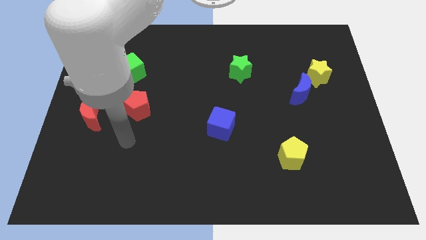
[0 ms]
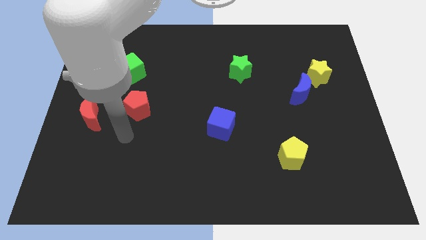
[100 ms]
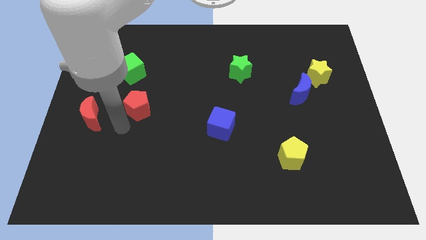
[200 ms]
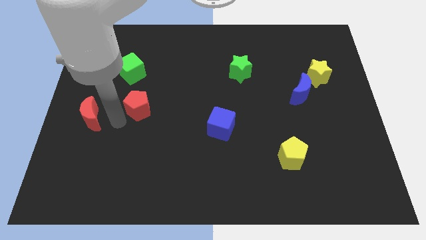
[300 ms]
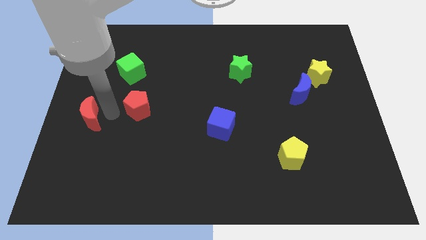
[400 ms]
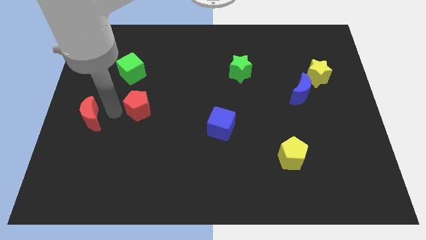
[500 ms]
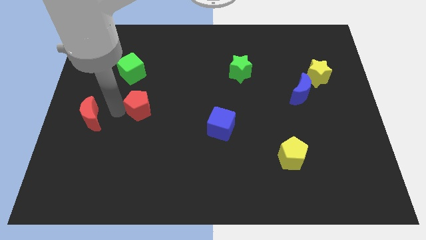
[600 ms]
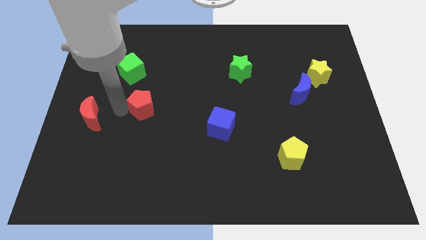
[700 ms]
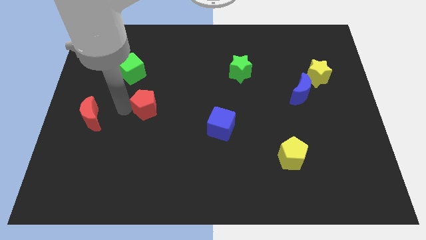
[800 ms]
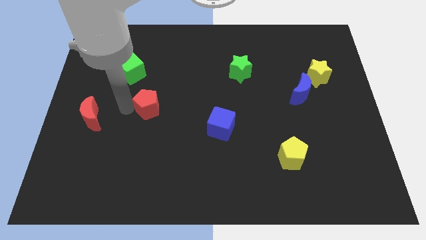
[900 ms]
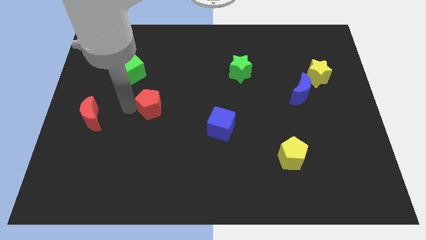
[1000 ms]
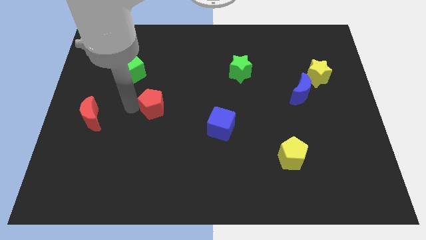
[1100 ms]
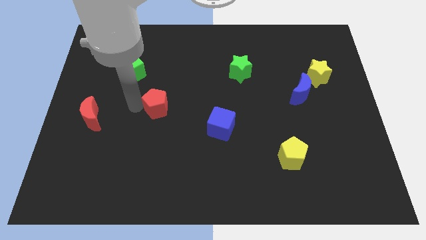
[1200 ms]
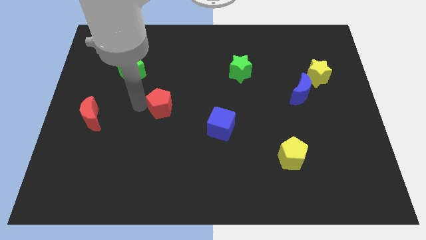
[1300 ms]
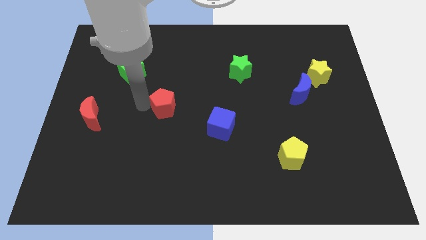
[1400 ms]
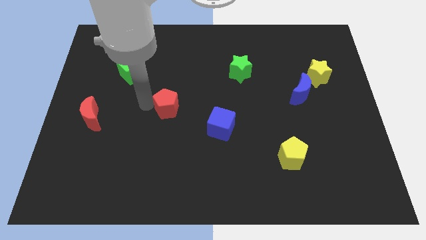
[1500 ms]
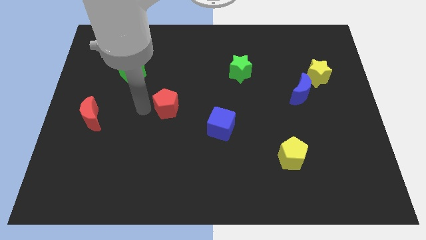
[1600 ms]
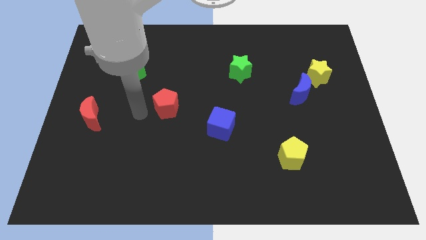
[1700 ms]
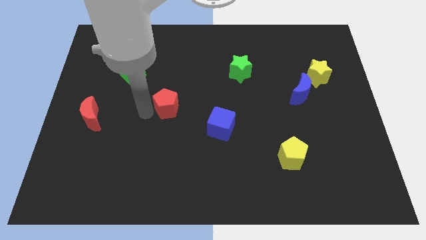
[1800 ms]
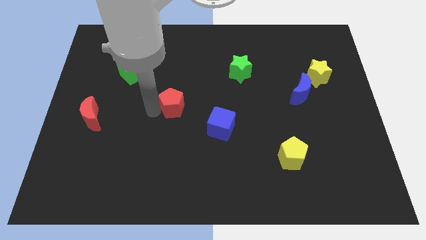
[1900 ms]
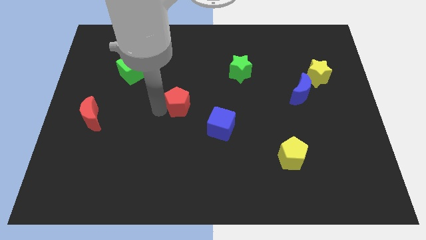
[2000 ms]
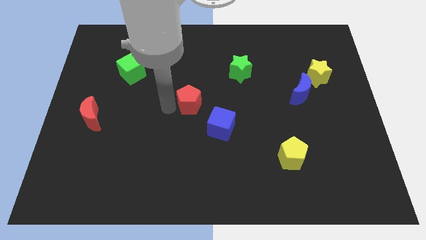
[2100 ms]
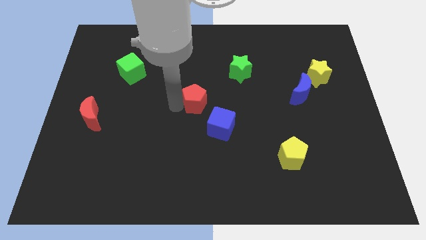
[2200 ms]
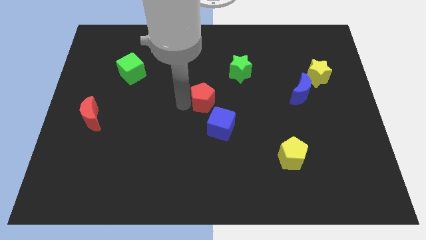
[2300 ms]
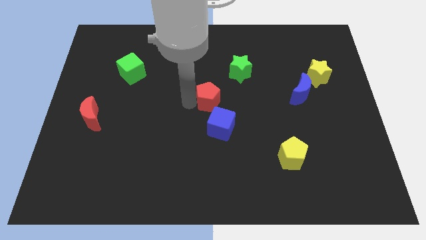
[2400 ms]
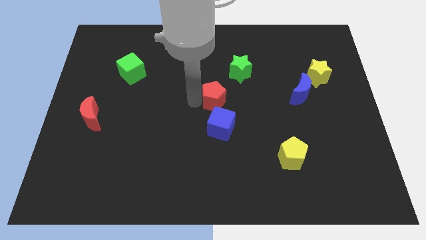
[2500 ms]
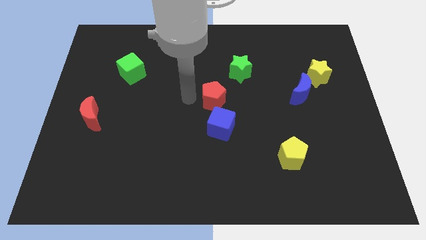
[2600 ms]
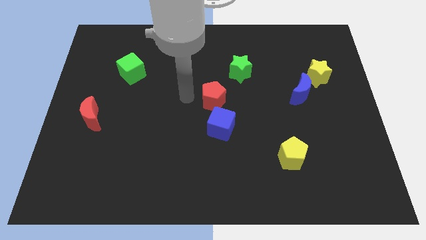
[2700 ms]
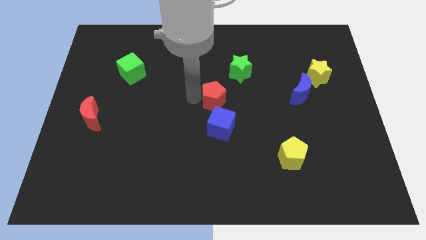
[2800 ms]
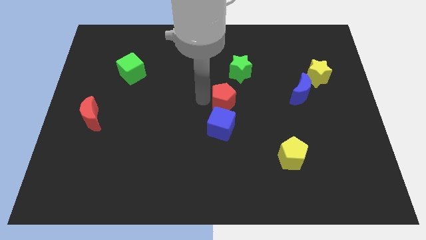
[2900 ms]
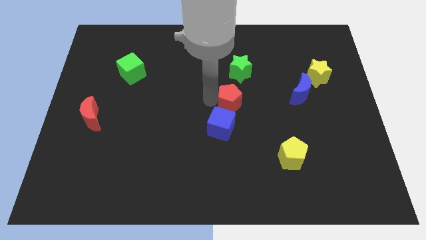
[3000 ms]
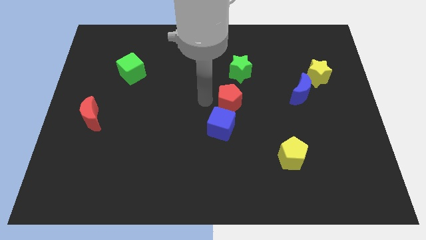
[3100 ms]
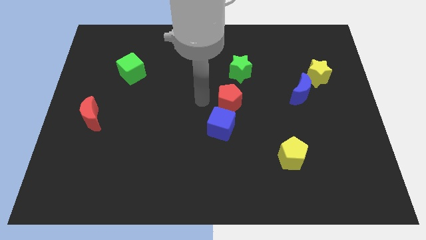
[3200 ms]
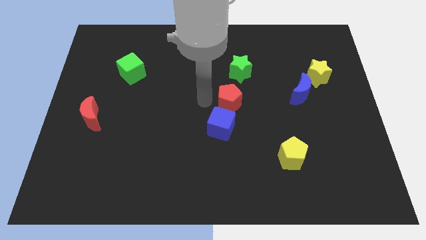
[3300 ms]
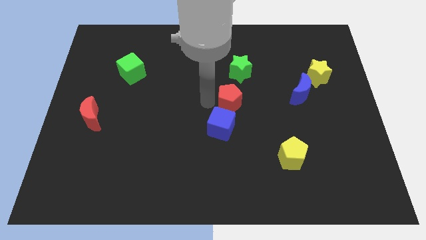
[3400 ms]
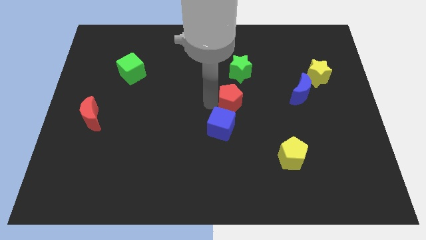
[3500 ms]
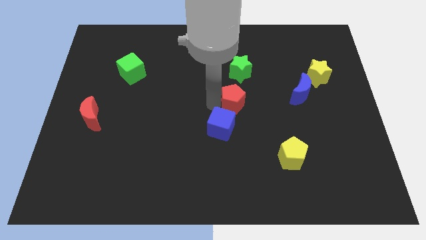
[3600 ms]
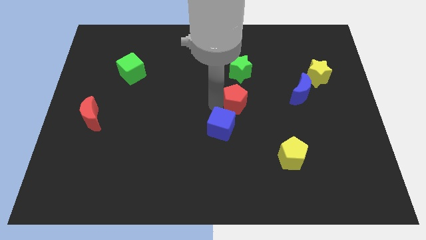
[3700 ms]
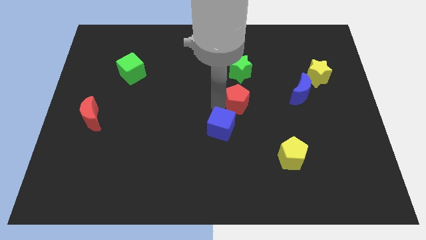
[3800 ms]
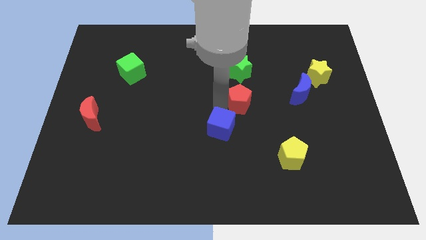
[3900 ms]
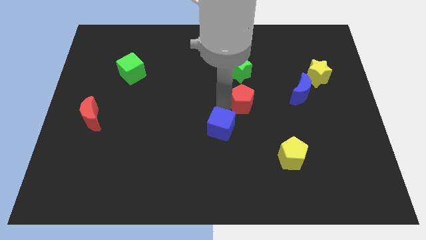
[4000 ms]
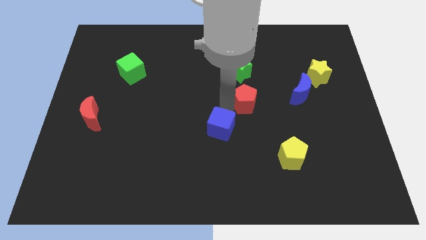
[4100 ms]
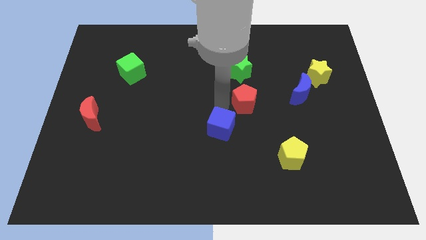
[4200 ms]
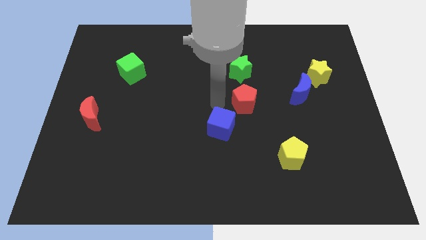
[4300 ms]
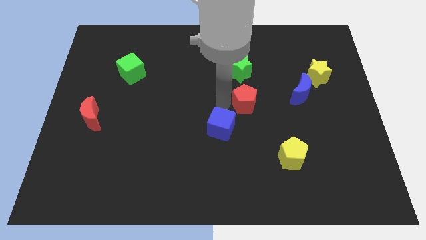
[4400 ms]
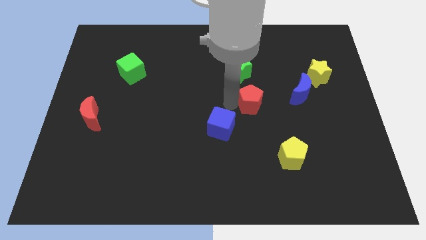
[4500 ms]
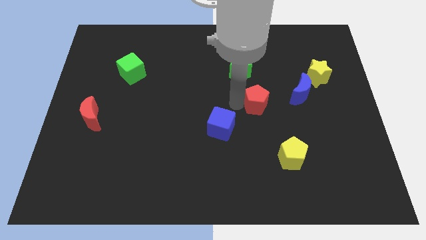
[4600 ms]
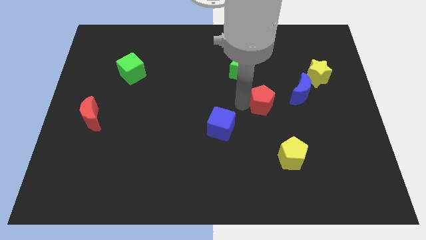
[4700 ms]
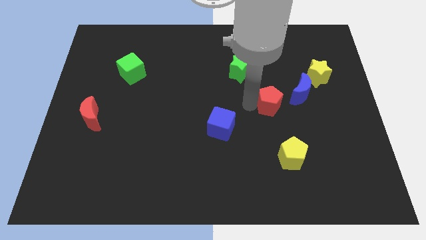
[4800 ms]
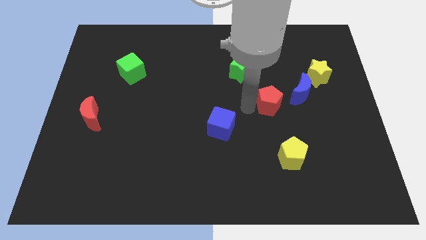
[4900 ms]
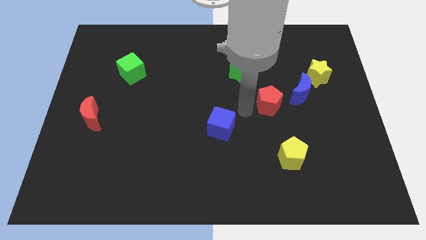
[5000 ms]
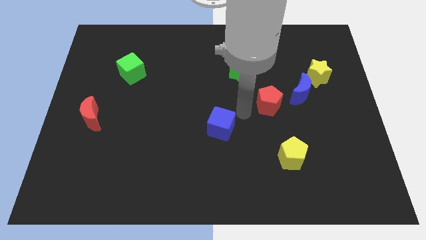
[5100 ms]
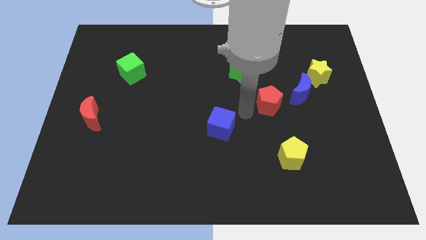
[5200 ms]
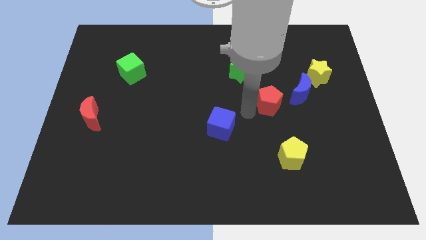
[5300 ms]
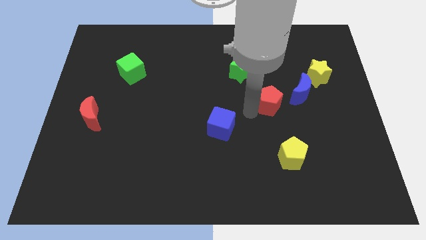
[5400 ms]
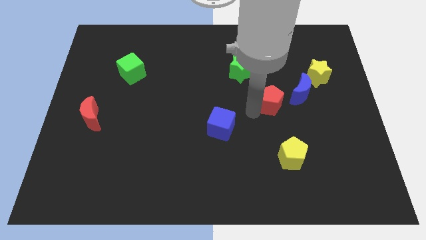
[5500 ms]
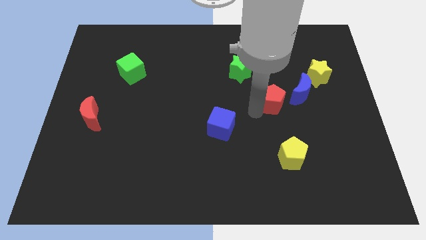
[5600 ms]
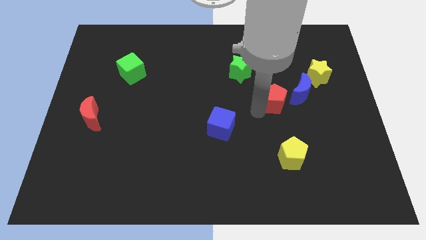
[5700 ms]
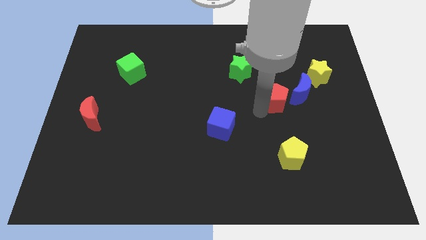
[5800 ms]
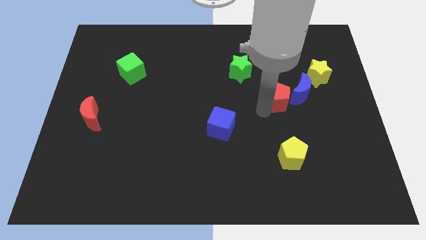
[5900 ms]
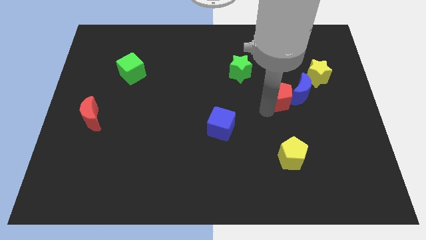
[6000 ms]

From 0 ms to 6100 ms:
move the red pentagon close to the blue moon

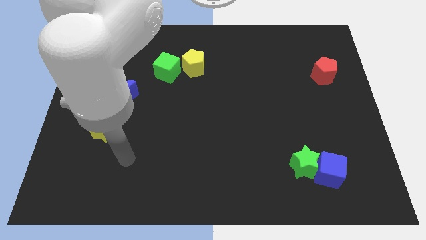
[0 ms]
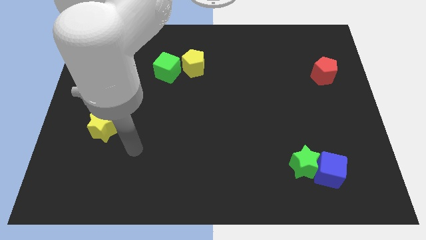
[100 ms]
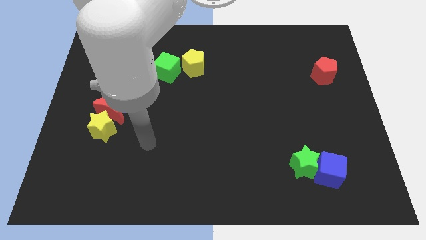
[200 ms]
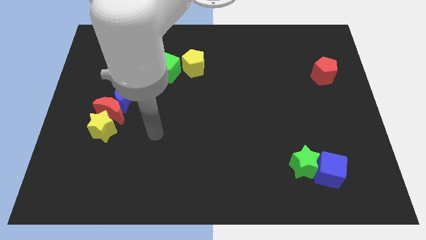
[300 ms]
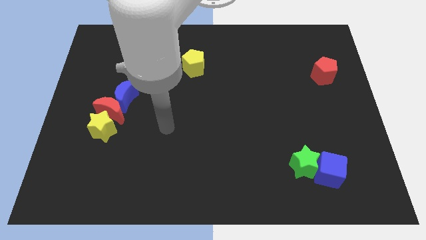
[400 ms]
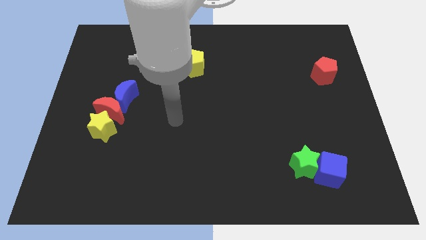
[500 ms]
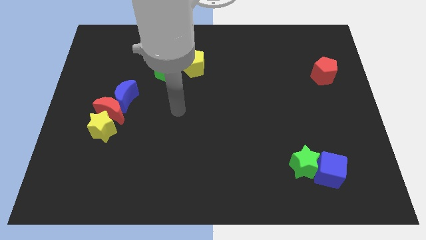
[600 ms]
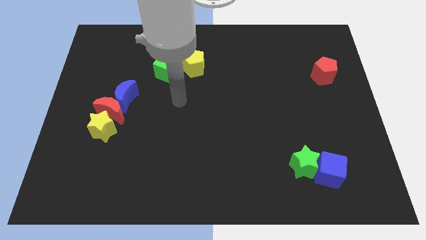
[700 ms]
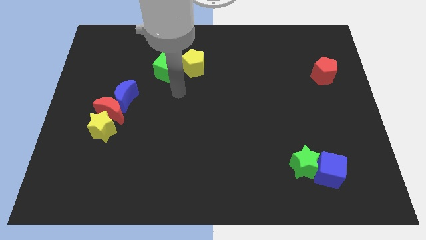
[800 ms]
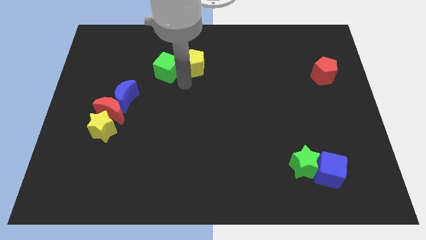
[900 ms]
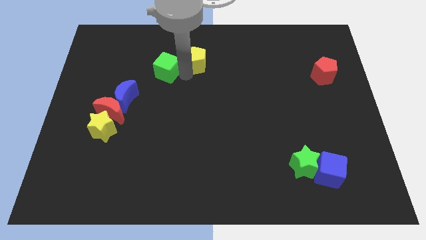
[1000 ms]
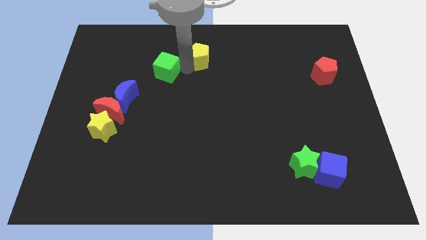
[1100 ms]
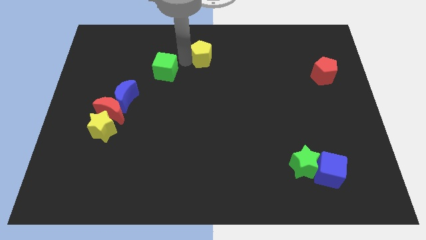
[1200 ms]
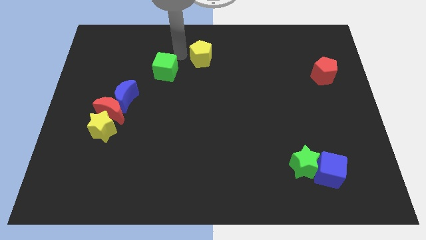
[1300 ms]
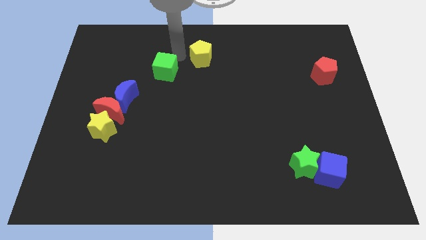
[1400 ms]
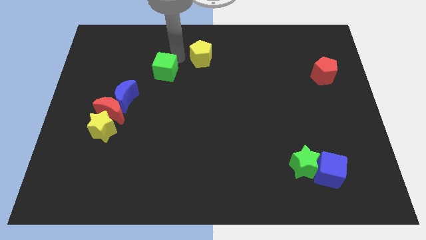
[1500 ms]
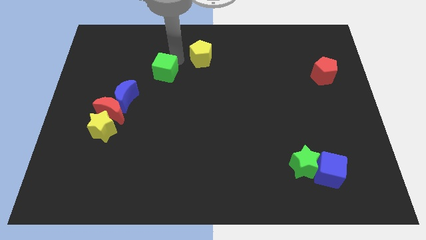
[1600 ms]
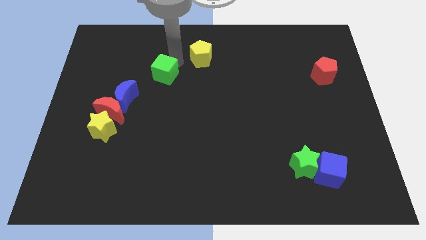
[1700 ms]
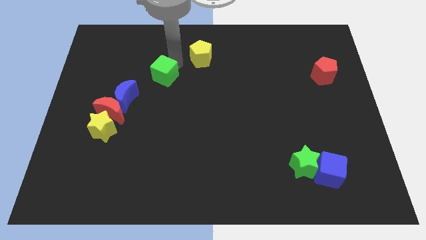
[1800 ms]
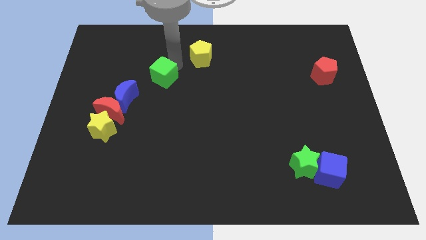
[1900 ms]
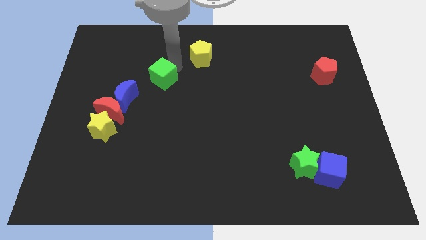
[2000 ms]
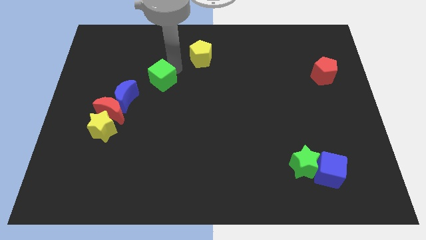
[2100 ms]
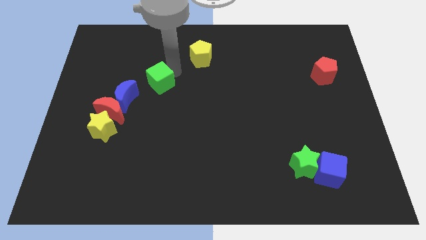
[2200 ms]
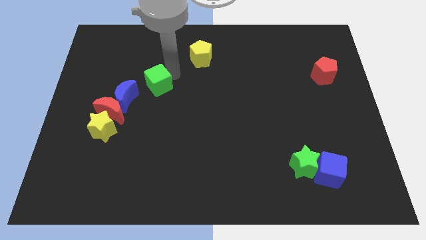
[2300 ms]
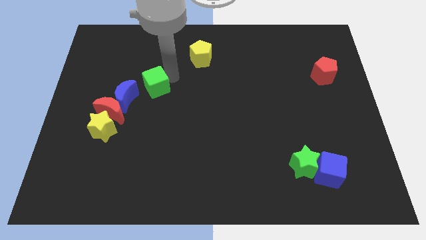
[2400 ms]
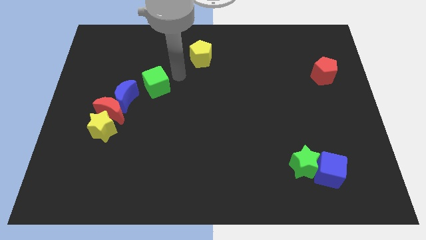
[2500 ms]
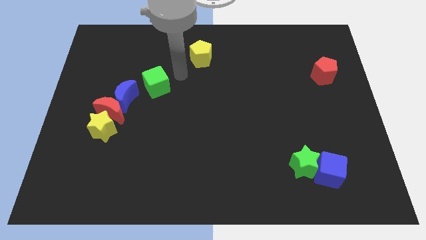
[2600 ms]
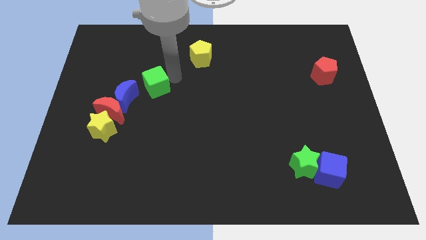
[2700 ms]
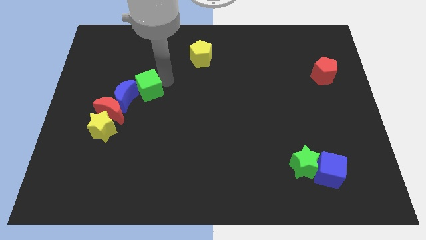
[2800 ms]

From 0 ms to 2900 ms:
move the green cube towards the blue moon
